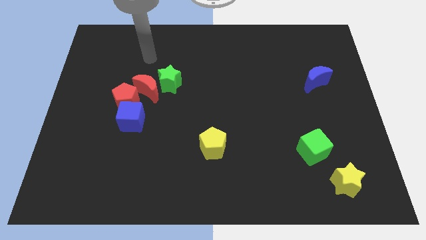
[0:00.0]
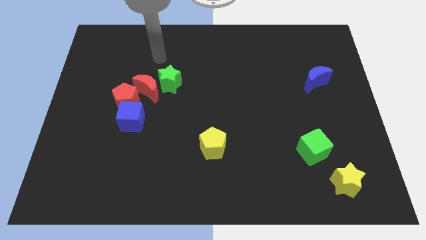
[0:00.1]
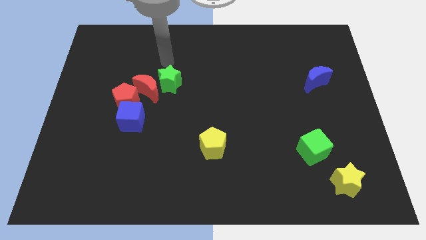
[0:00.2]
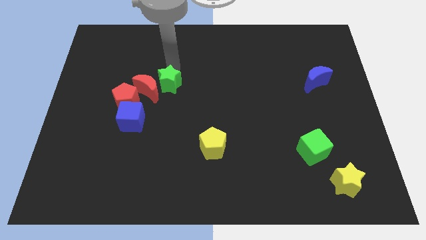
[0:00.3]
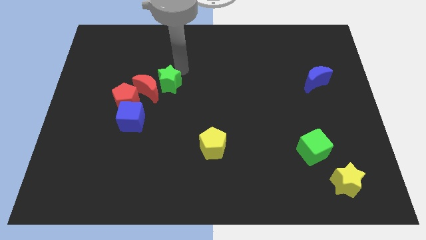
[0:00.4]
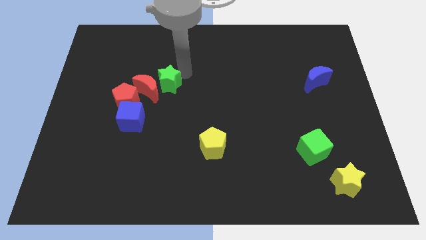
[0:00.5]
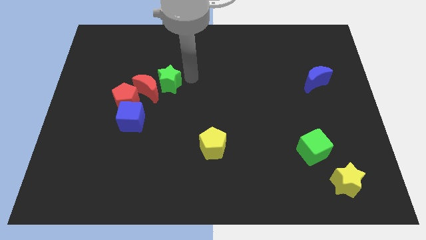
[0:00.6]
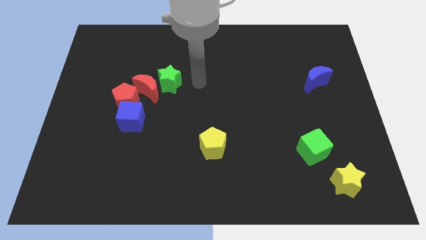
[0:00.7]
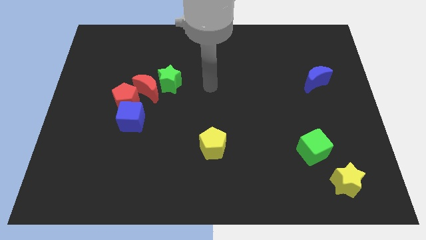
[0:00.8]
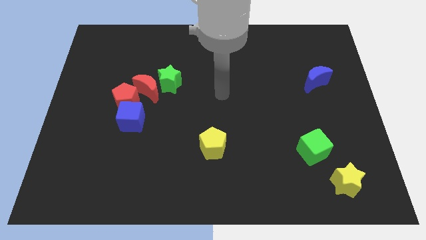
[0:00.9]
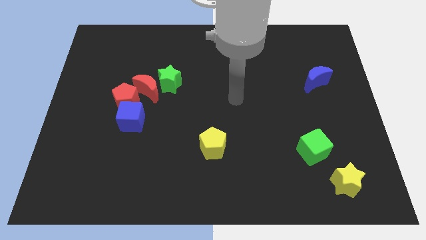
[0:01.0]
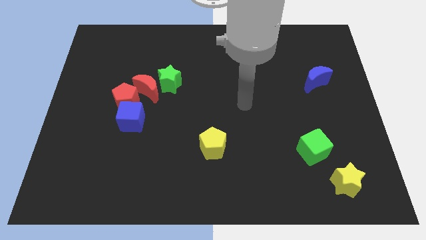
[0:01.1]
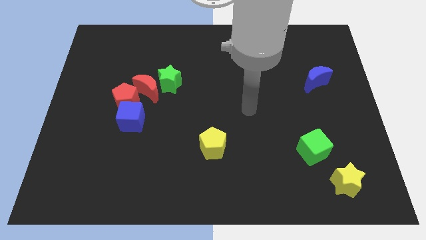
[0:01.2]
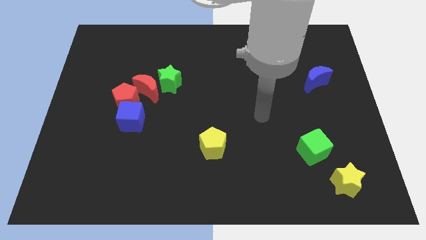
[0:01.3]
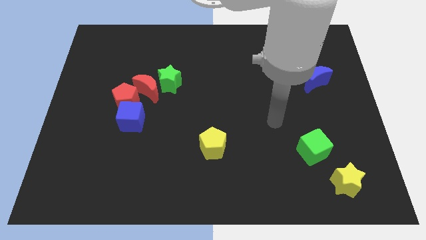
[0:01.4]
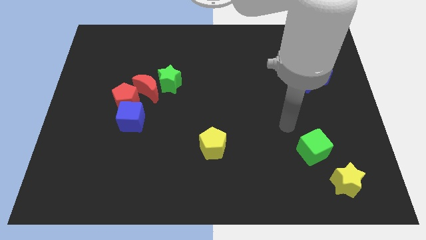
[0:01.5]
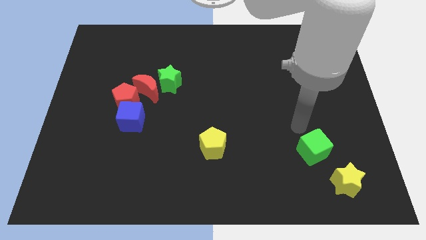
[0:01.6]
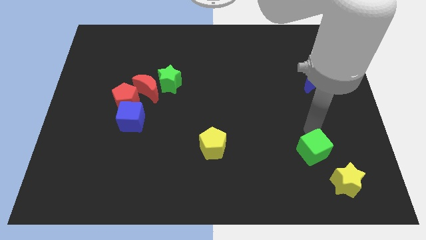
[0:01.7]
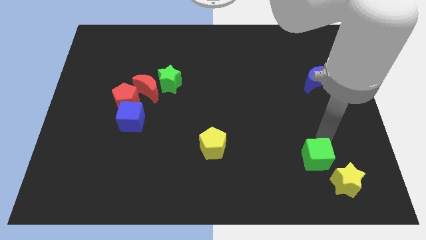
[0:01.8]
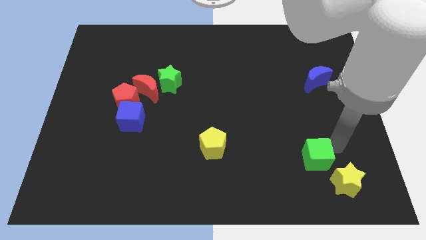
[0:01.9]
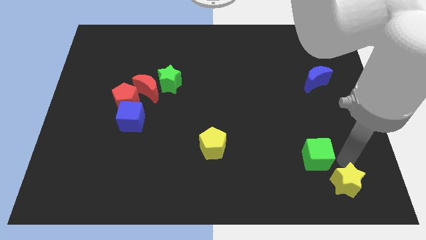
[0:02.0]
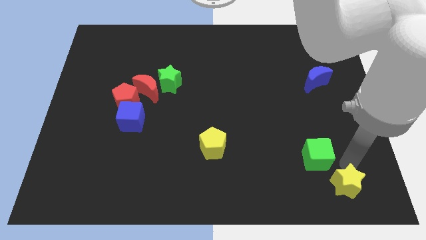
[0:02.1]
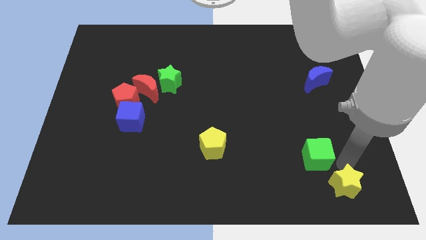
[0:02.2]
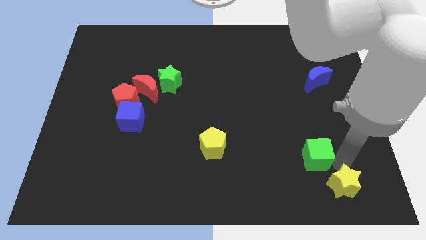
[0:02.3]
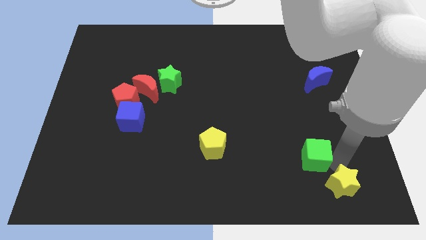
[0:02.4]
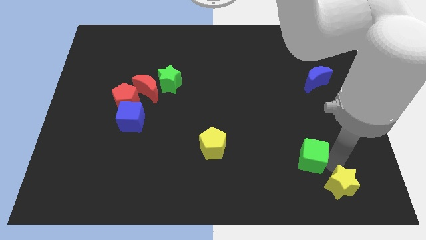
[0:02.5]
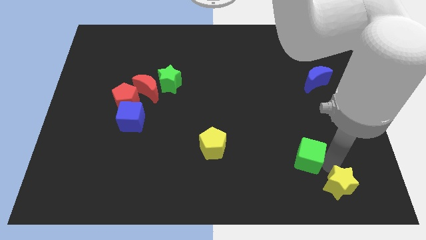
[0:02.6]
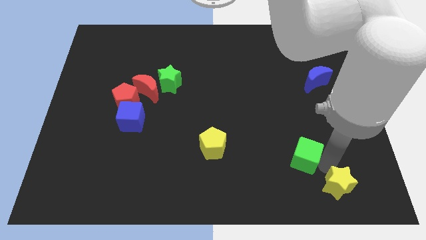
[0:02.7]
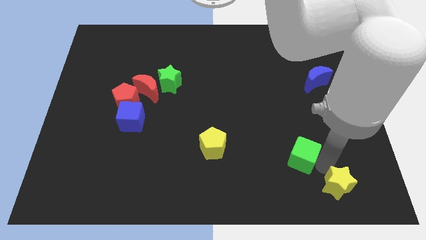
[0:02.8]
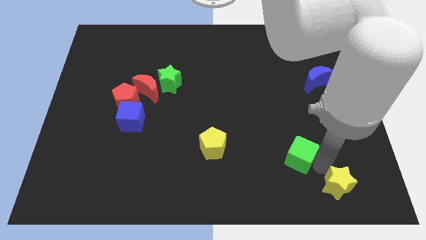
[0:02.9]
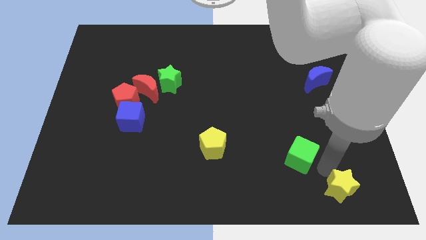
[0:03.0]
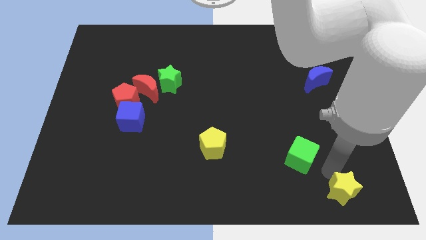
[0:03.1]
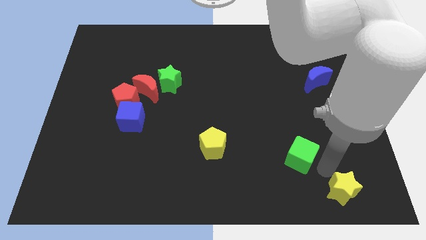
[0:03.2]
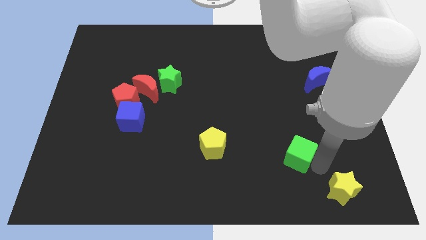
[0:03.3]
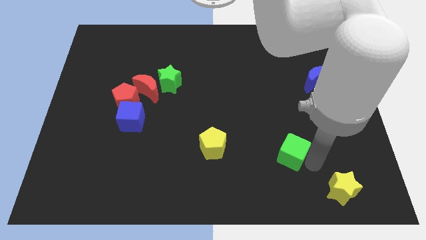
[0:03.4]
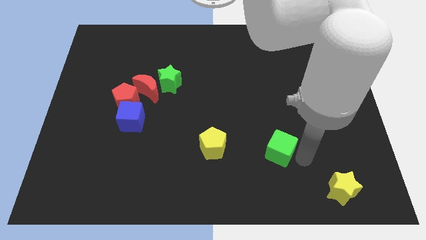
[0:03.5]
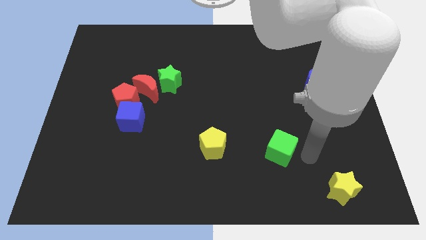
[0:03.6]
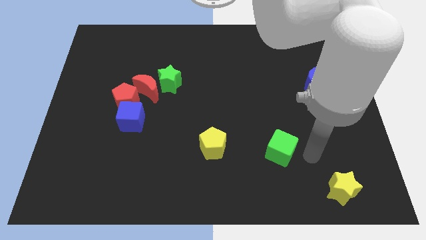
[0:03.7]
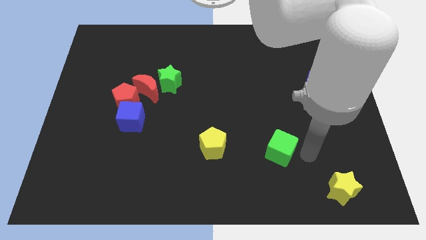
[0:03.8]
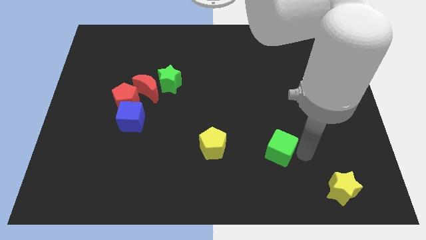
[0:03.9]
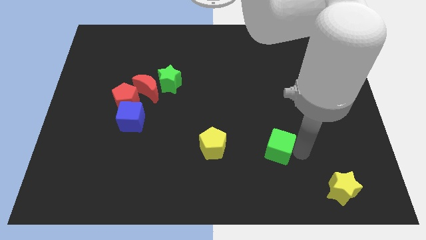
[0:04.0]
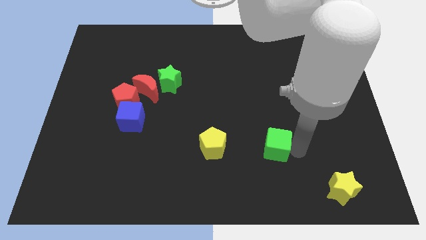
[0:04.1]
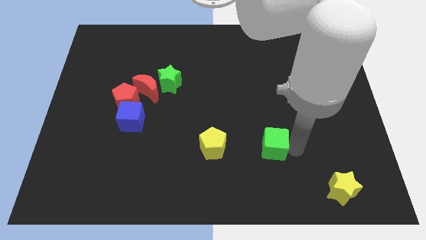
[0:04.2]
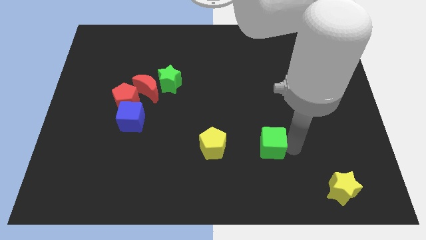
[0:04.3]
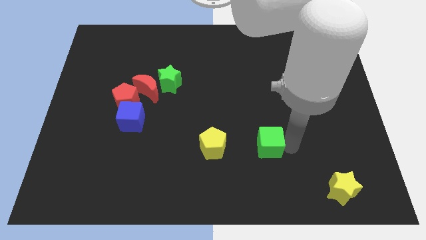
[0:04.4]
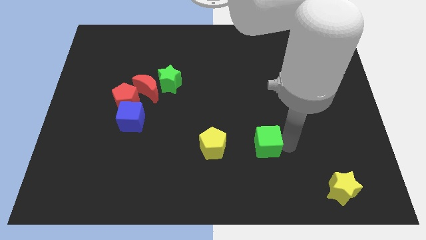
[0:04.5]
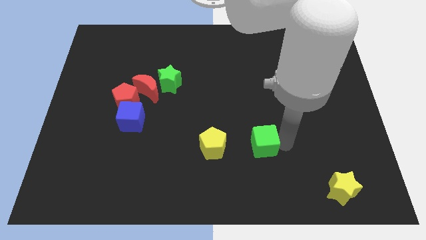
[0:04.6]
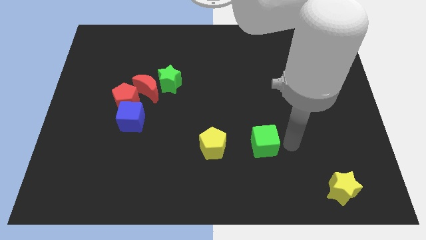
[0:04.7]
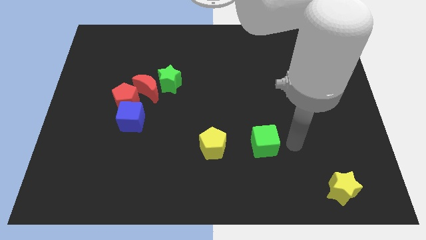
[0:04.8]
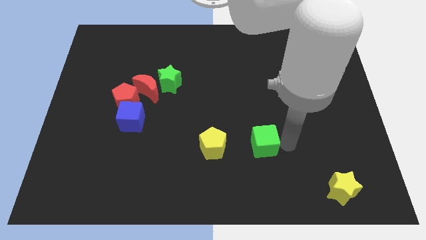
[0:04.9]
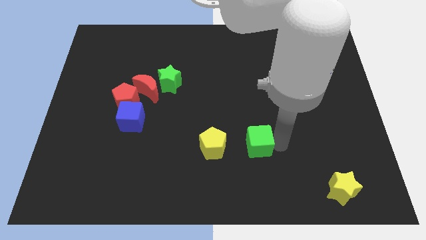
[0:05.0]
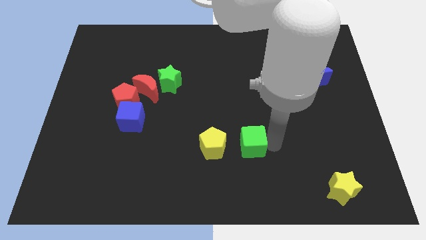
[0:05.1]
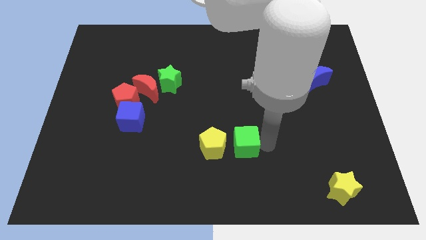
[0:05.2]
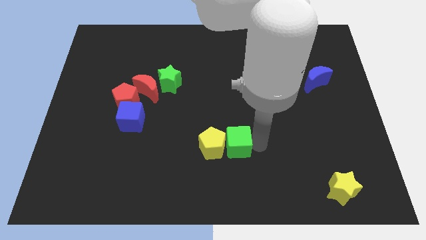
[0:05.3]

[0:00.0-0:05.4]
push the green cube close to the yellow pentagon

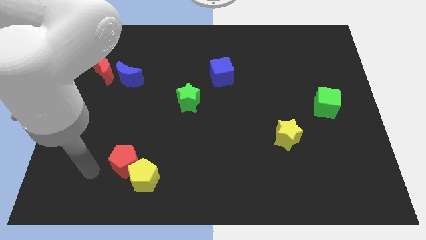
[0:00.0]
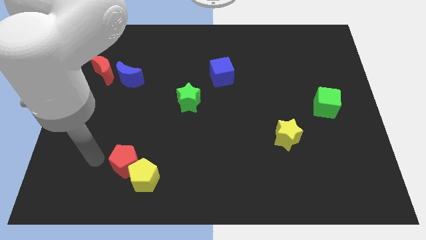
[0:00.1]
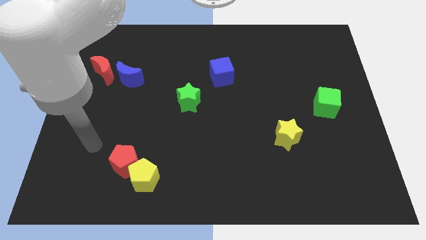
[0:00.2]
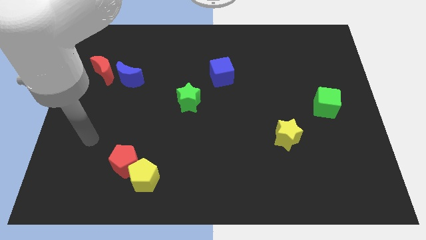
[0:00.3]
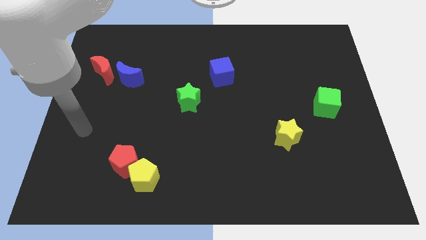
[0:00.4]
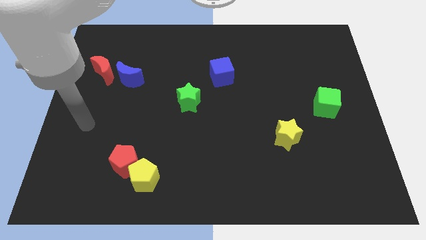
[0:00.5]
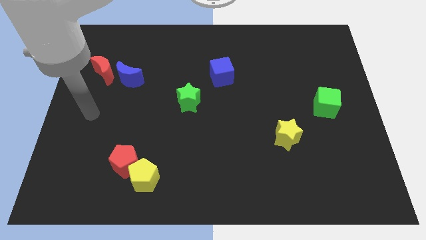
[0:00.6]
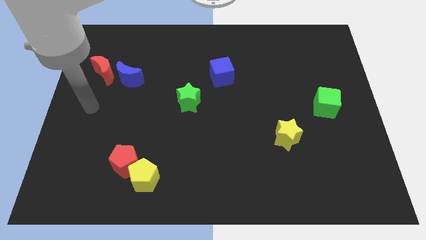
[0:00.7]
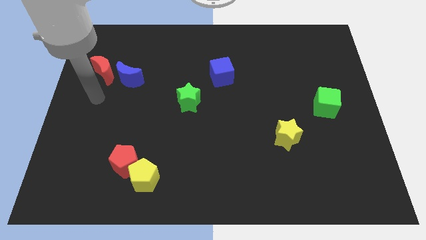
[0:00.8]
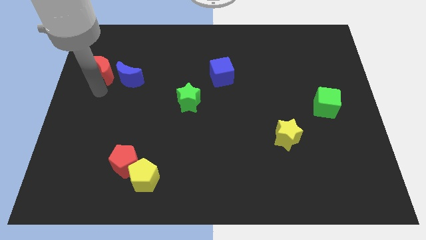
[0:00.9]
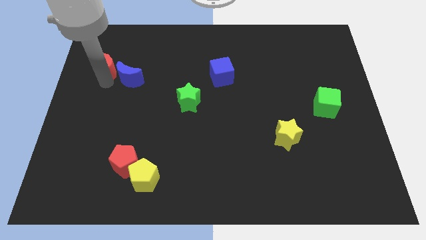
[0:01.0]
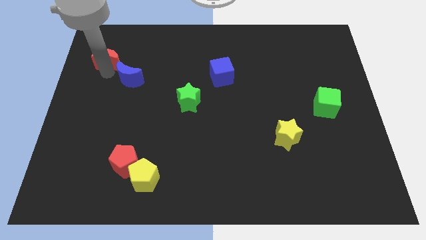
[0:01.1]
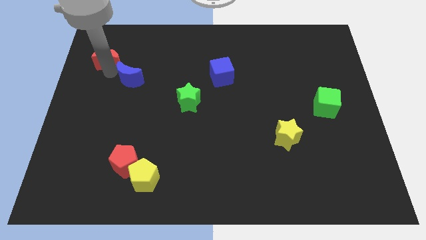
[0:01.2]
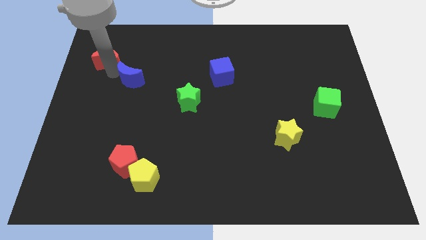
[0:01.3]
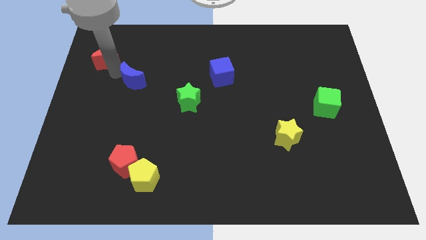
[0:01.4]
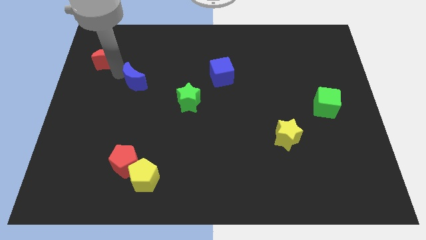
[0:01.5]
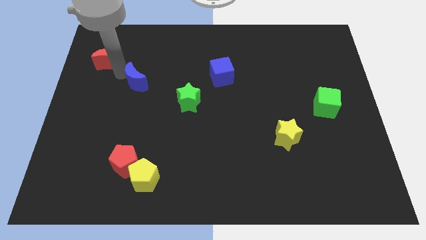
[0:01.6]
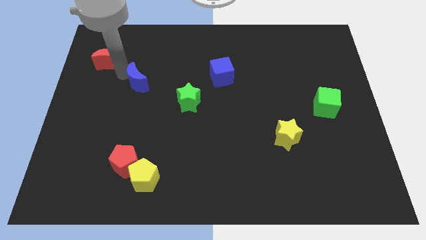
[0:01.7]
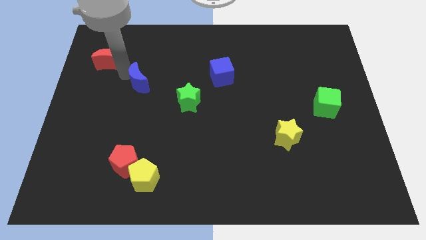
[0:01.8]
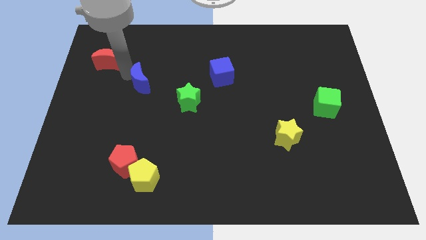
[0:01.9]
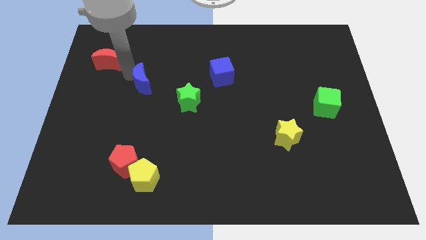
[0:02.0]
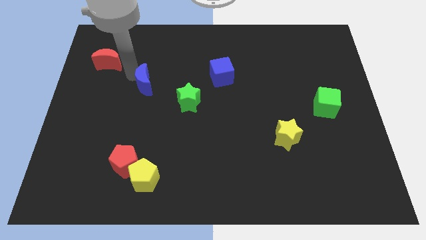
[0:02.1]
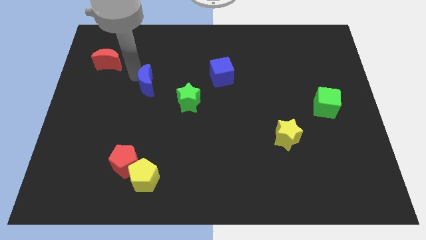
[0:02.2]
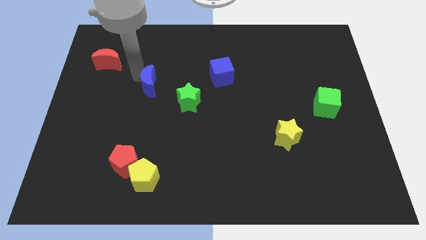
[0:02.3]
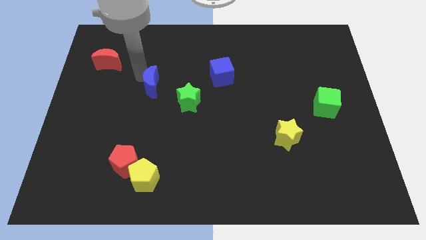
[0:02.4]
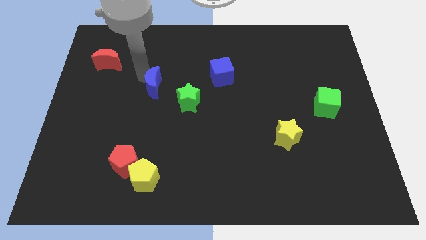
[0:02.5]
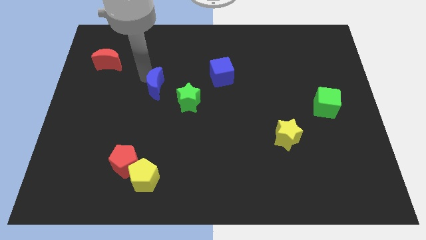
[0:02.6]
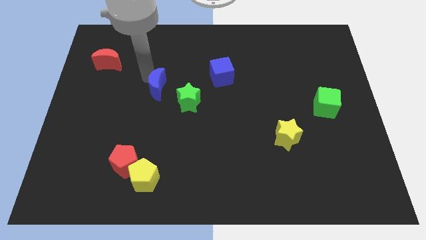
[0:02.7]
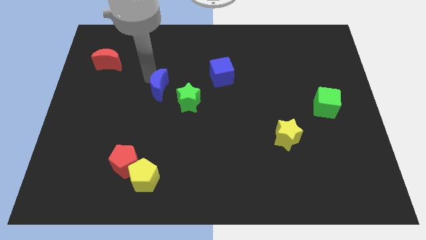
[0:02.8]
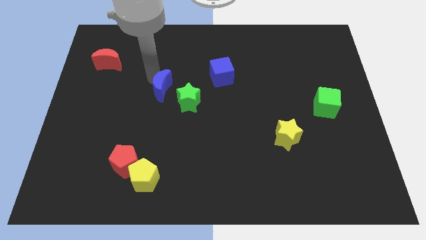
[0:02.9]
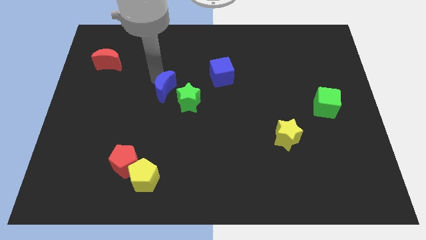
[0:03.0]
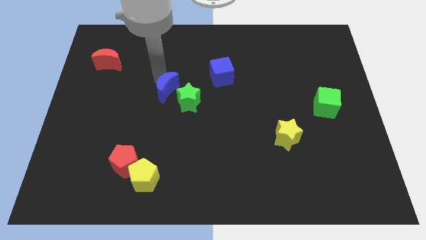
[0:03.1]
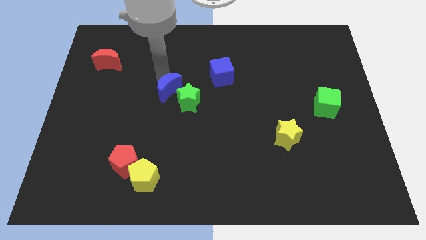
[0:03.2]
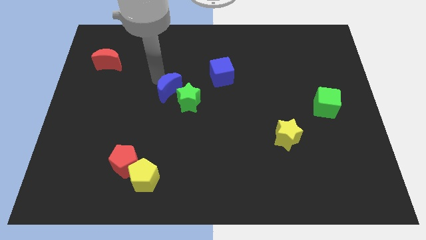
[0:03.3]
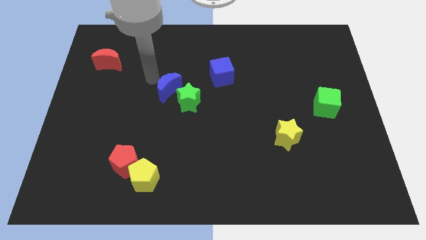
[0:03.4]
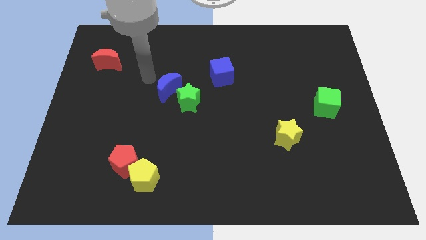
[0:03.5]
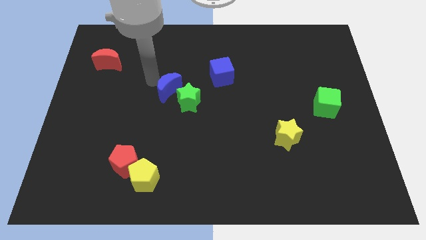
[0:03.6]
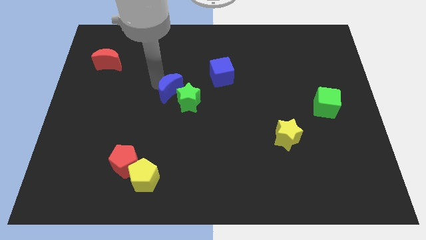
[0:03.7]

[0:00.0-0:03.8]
put the blue moon close to the green star
